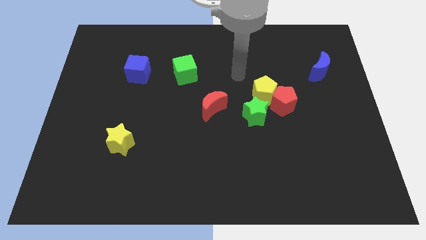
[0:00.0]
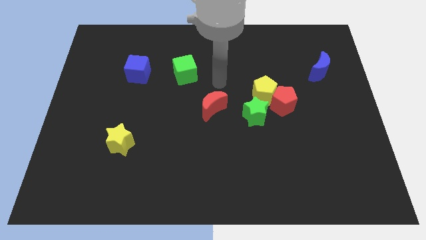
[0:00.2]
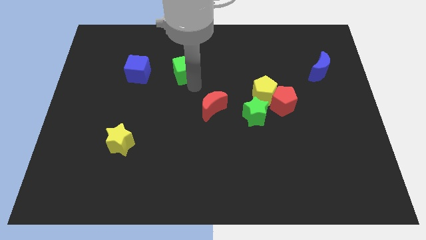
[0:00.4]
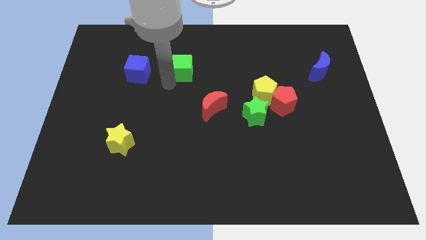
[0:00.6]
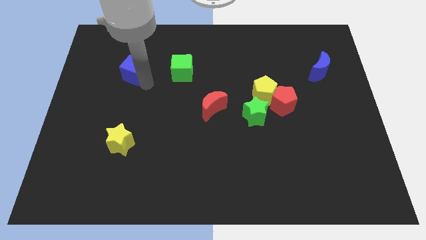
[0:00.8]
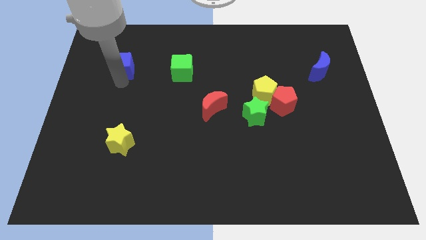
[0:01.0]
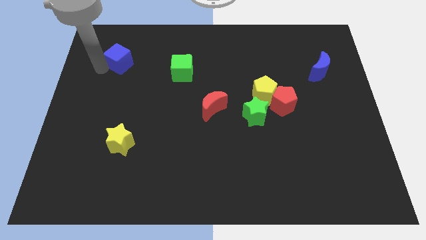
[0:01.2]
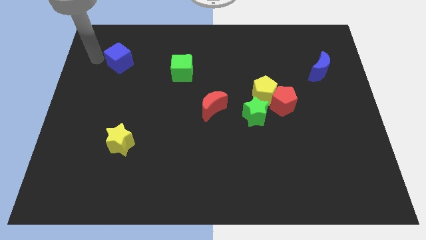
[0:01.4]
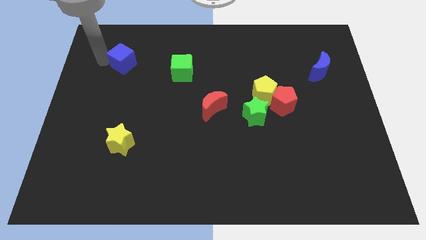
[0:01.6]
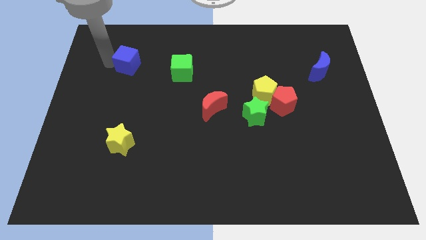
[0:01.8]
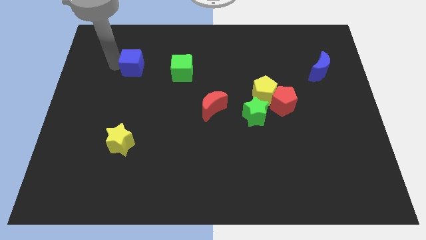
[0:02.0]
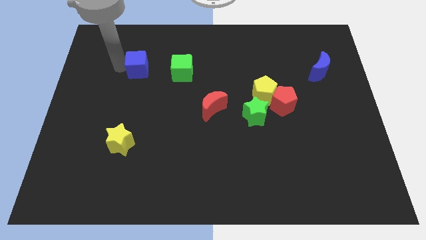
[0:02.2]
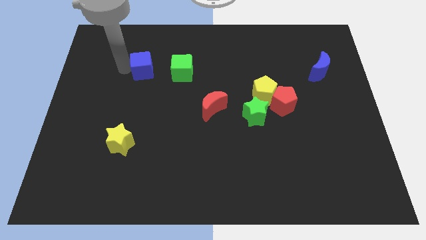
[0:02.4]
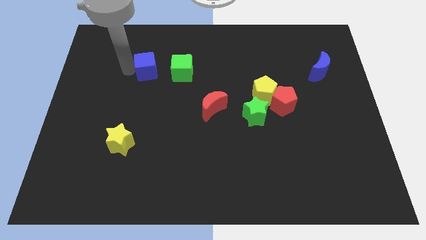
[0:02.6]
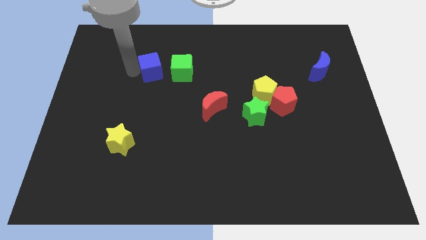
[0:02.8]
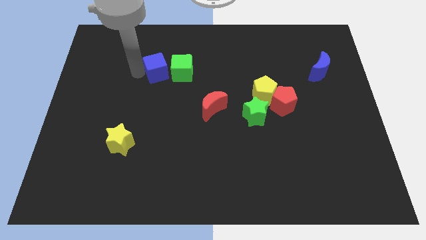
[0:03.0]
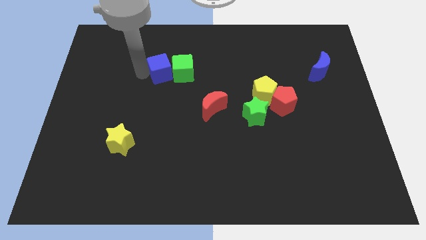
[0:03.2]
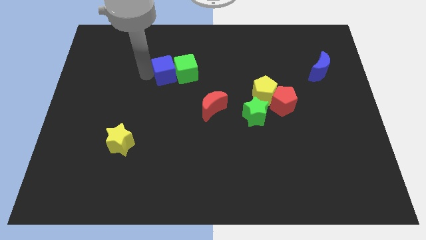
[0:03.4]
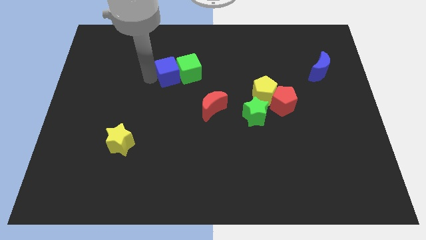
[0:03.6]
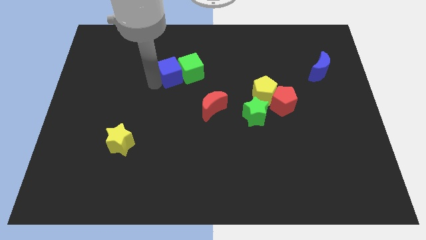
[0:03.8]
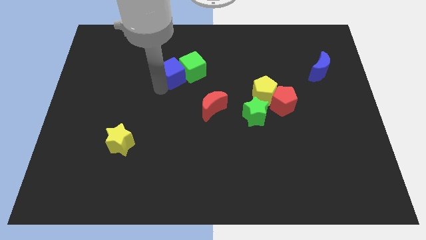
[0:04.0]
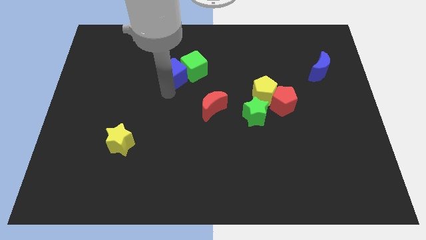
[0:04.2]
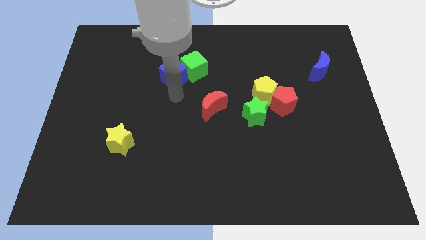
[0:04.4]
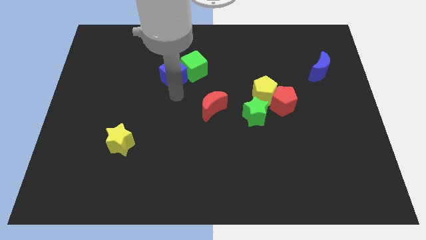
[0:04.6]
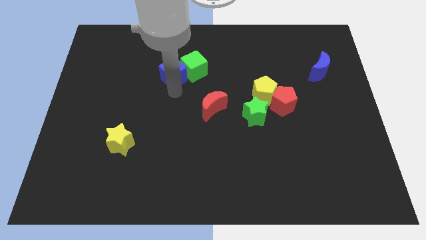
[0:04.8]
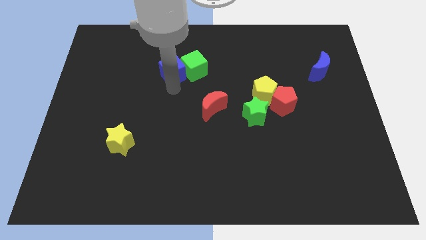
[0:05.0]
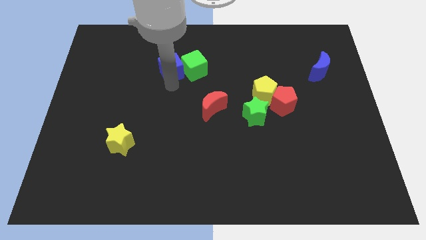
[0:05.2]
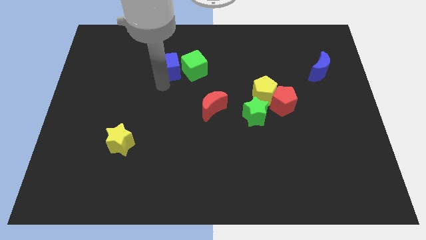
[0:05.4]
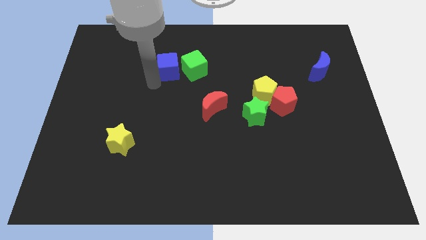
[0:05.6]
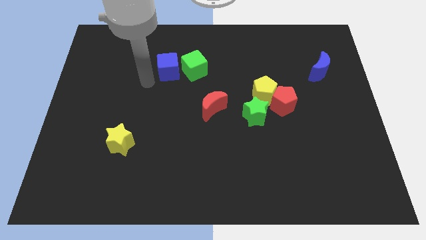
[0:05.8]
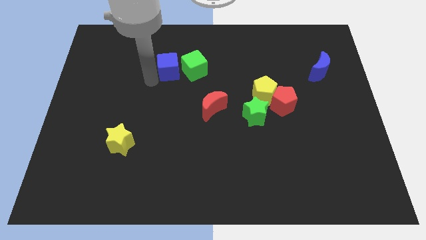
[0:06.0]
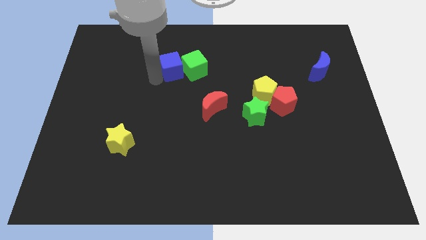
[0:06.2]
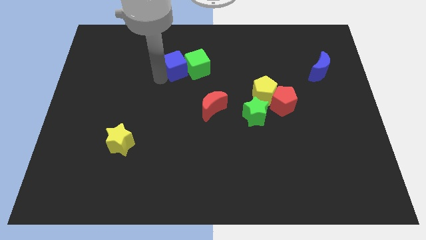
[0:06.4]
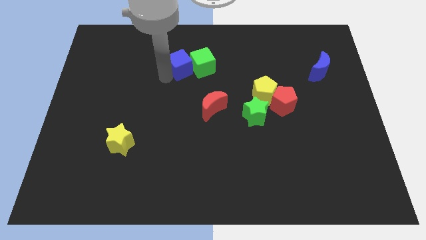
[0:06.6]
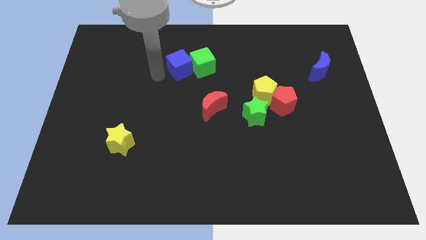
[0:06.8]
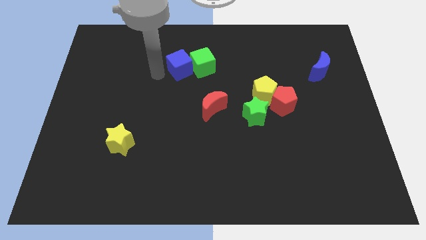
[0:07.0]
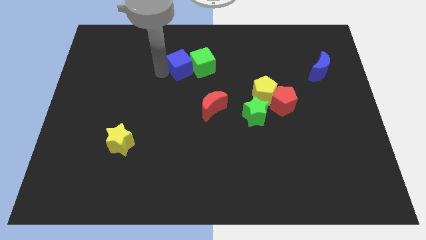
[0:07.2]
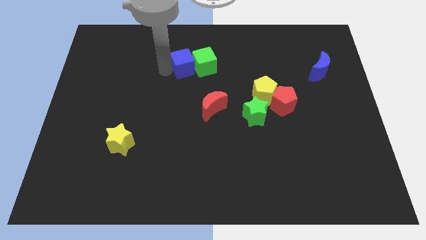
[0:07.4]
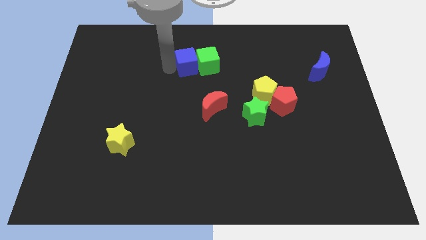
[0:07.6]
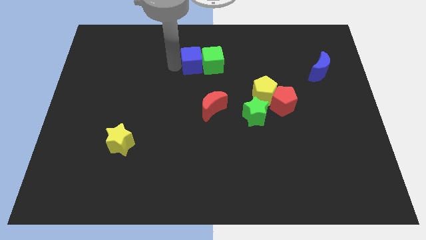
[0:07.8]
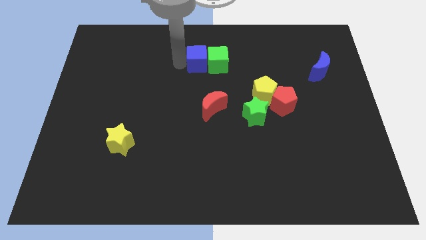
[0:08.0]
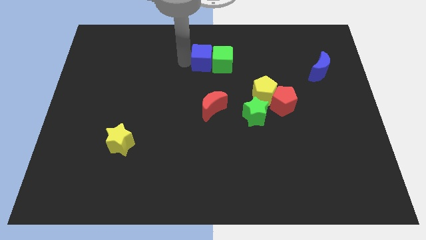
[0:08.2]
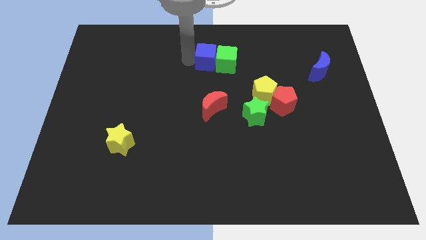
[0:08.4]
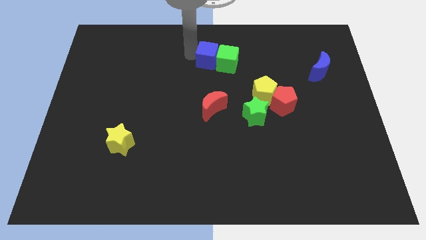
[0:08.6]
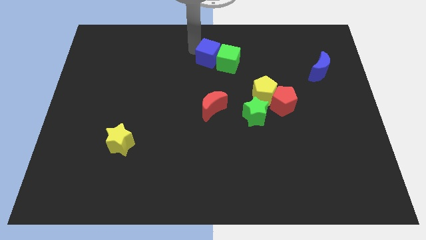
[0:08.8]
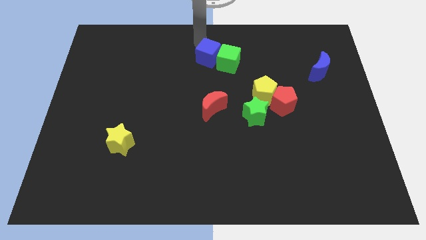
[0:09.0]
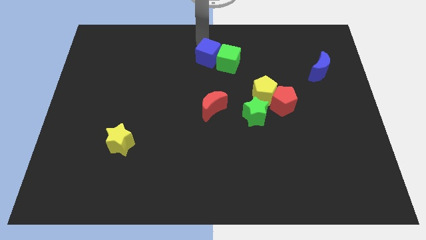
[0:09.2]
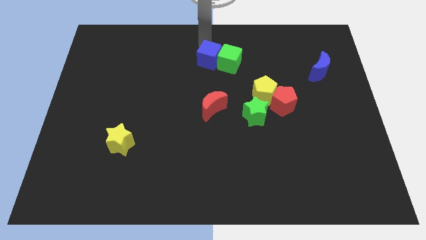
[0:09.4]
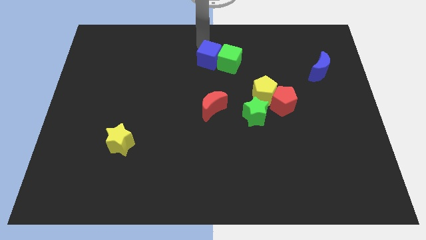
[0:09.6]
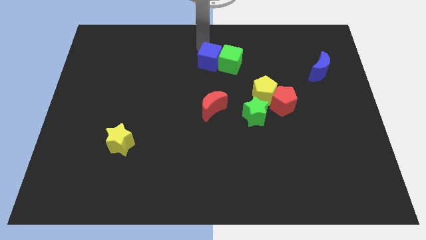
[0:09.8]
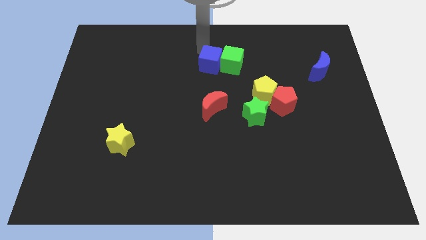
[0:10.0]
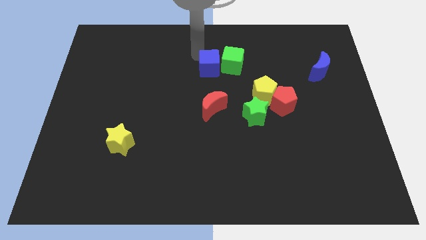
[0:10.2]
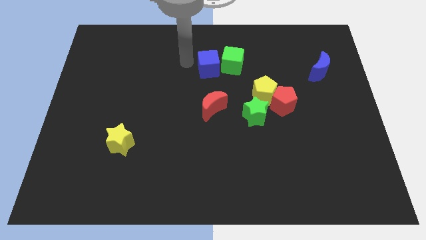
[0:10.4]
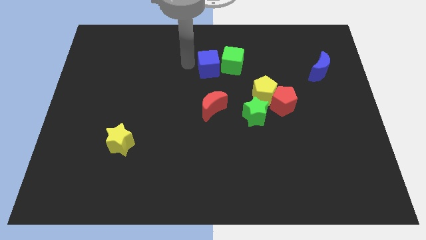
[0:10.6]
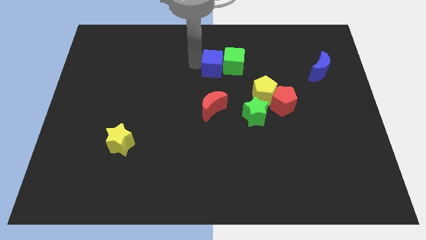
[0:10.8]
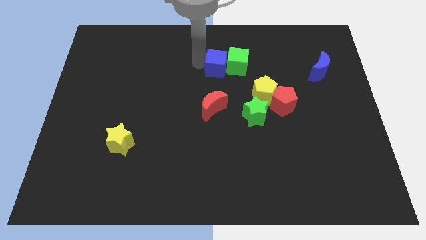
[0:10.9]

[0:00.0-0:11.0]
move the blue cube right

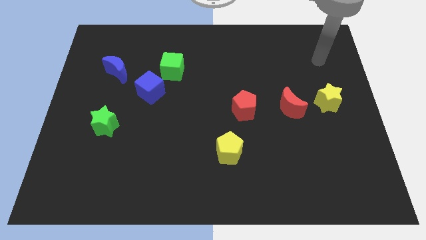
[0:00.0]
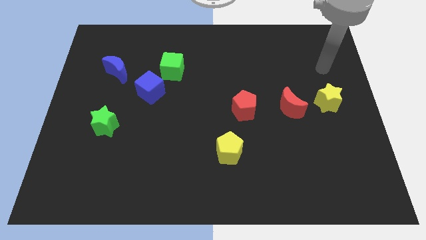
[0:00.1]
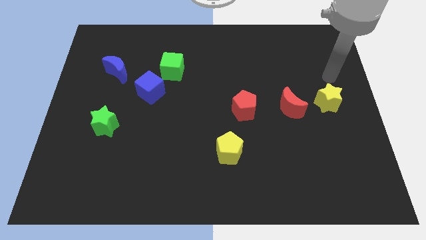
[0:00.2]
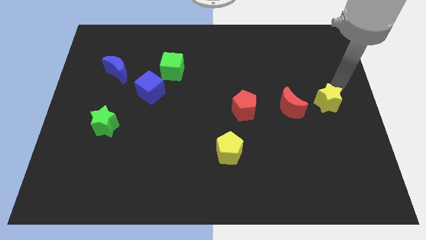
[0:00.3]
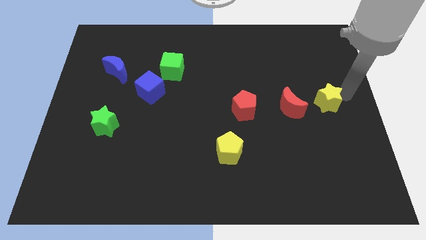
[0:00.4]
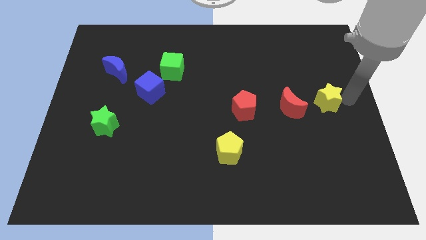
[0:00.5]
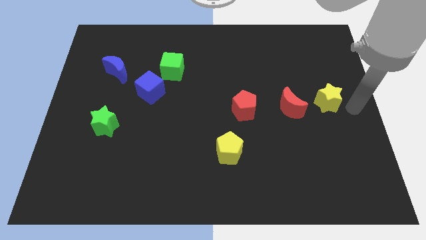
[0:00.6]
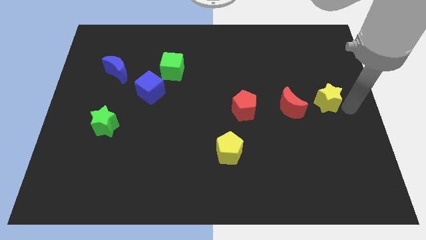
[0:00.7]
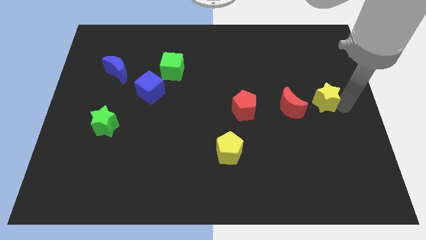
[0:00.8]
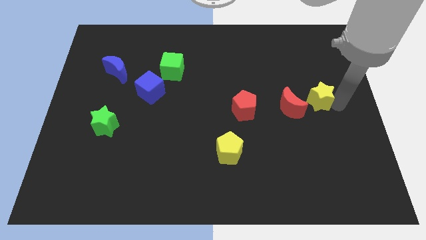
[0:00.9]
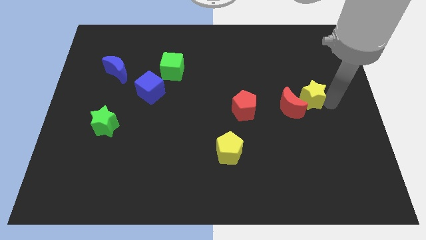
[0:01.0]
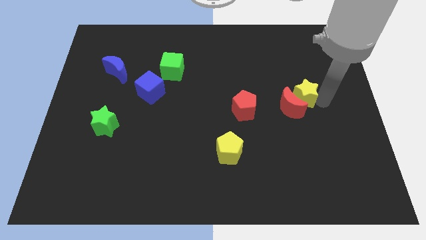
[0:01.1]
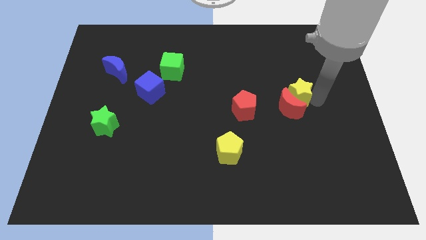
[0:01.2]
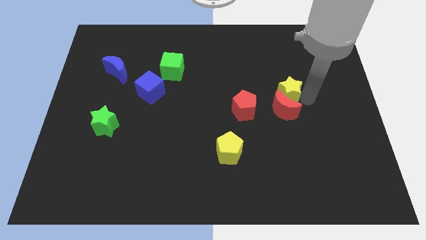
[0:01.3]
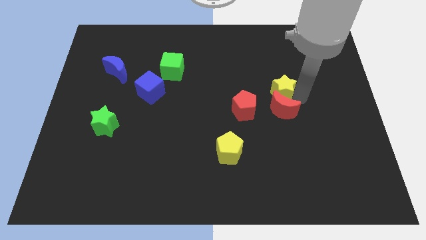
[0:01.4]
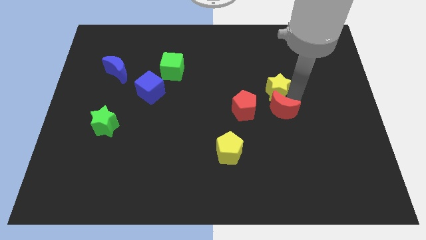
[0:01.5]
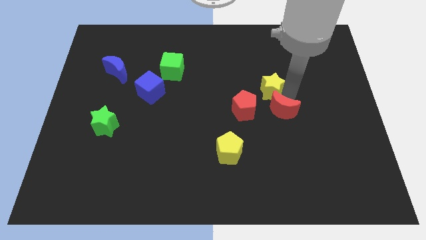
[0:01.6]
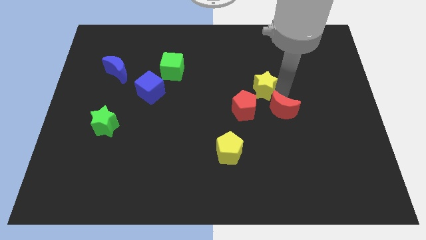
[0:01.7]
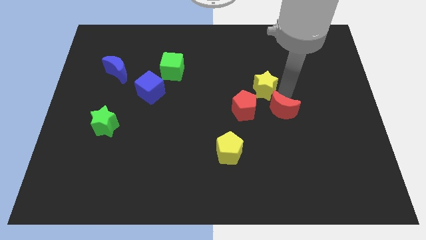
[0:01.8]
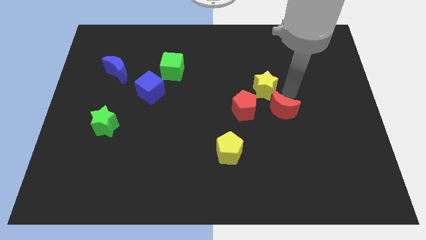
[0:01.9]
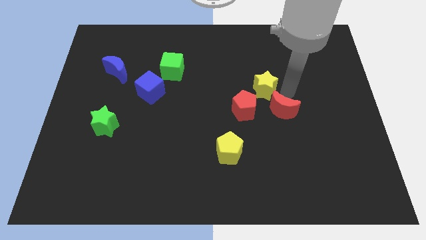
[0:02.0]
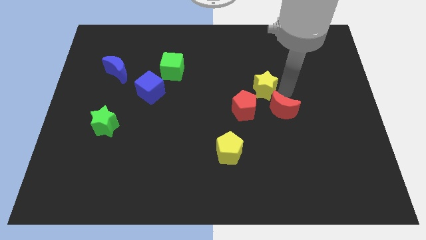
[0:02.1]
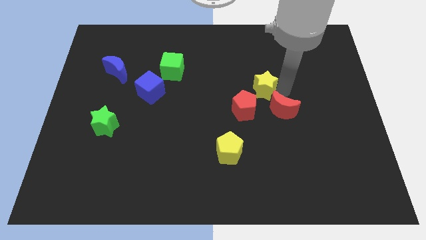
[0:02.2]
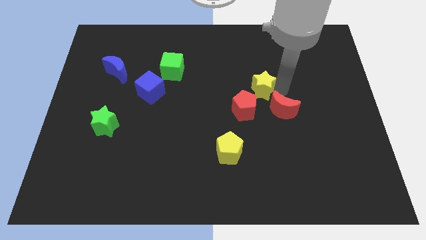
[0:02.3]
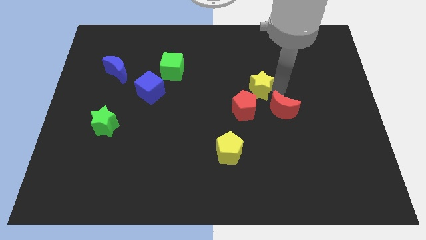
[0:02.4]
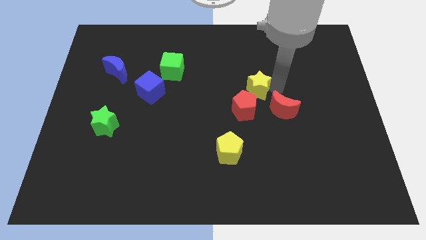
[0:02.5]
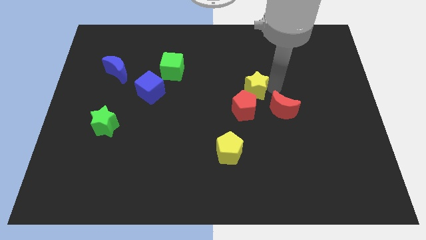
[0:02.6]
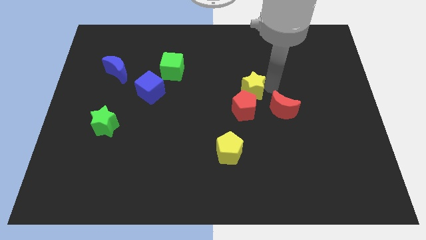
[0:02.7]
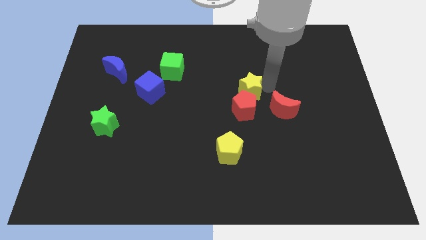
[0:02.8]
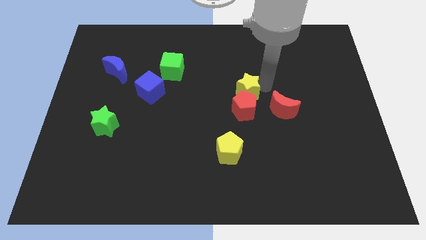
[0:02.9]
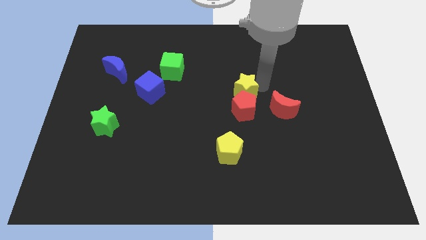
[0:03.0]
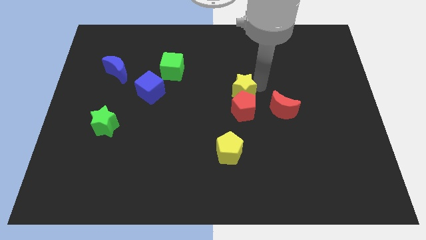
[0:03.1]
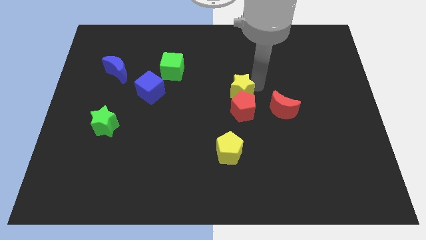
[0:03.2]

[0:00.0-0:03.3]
push the yellow star left
